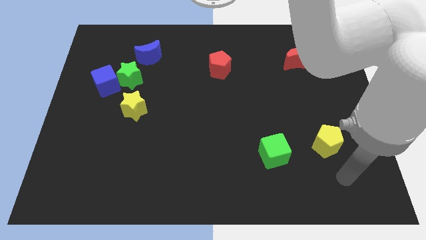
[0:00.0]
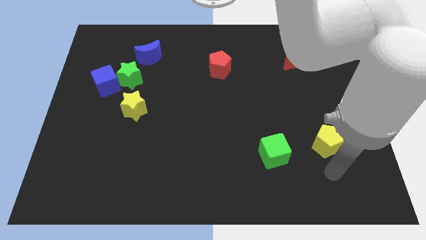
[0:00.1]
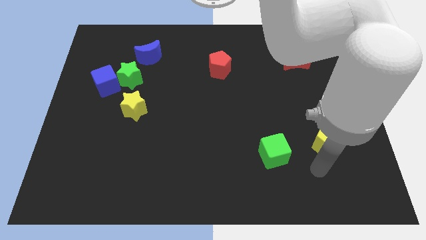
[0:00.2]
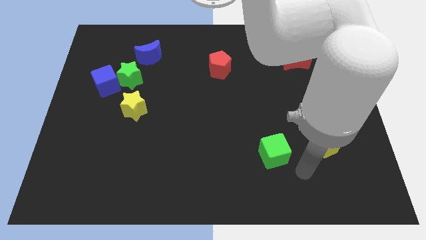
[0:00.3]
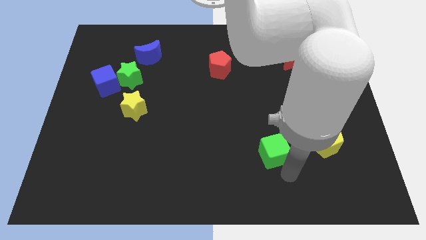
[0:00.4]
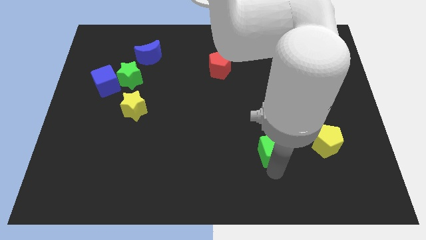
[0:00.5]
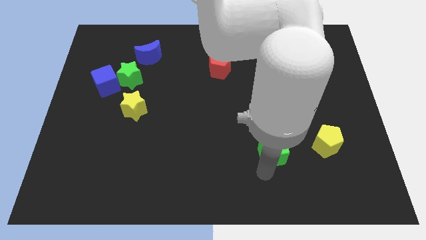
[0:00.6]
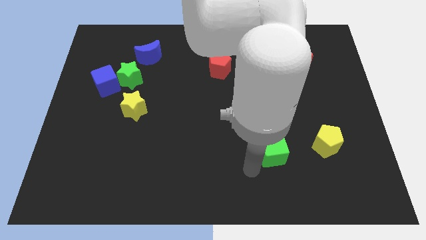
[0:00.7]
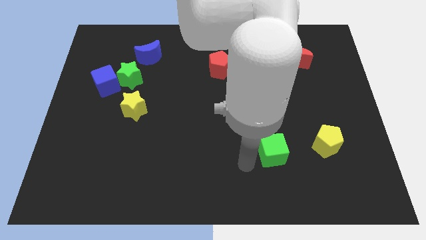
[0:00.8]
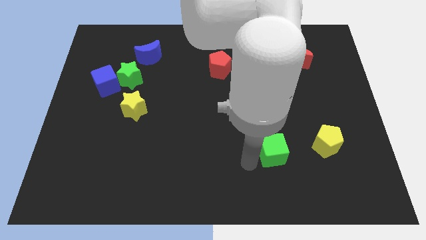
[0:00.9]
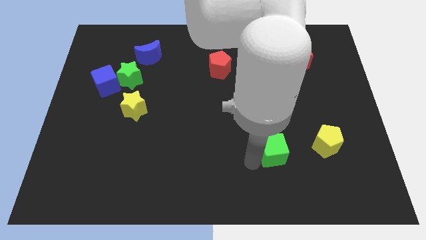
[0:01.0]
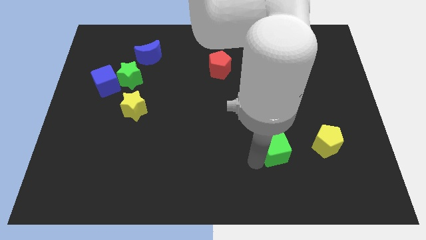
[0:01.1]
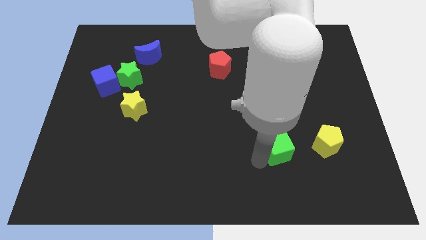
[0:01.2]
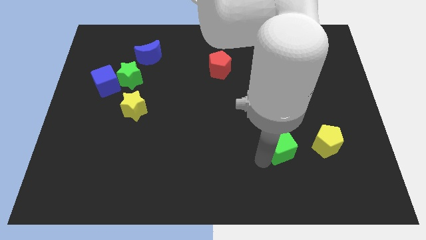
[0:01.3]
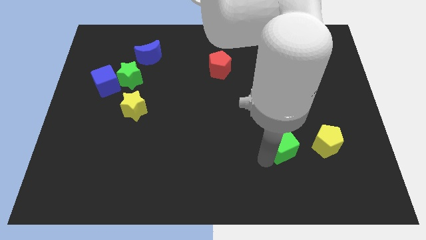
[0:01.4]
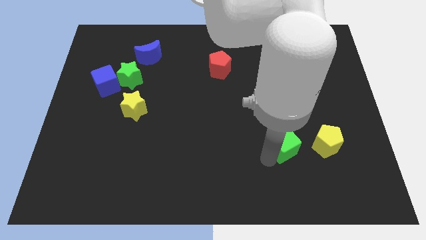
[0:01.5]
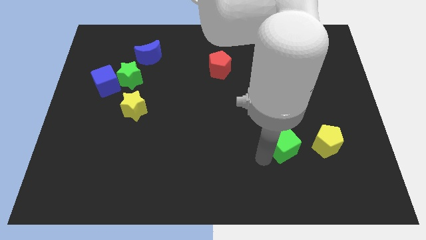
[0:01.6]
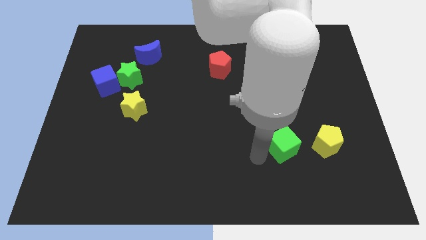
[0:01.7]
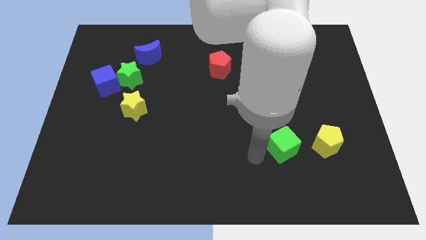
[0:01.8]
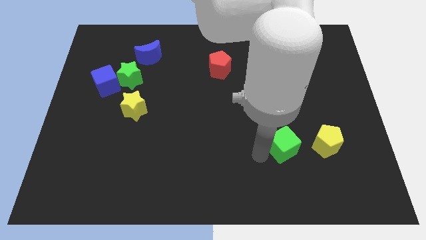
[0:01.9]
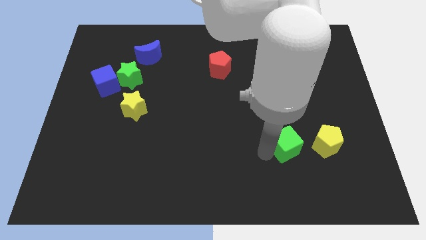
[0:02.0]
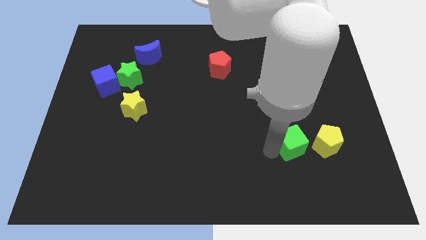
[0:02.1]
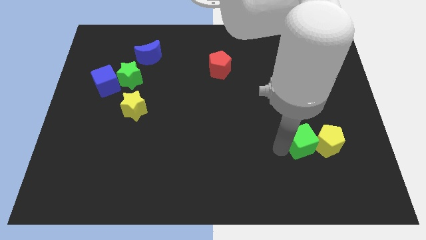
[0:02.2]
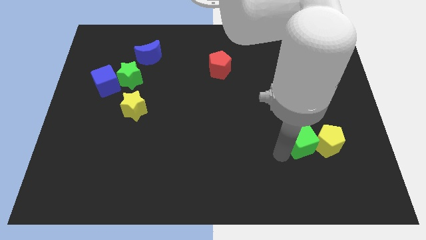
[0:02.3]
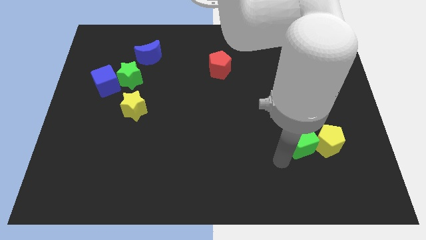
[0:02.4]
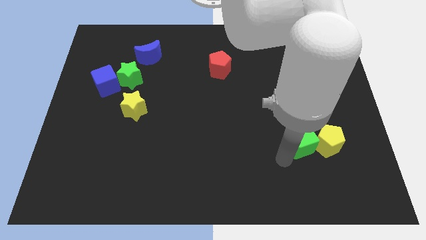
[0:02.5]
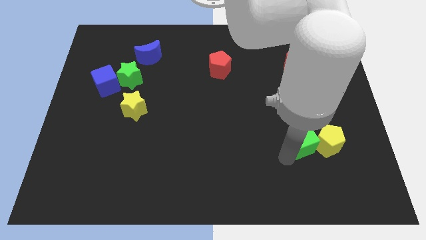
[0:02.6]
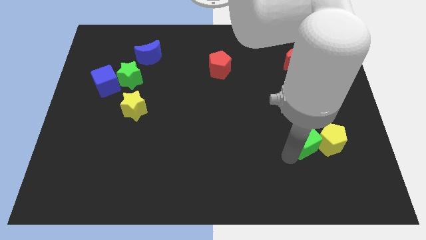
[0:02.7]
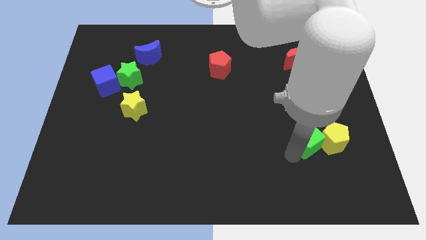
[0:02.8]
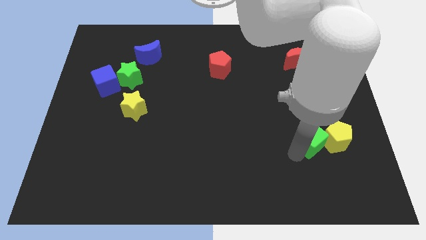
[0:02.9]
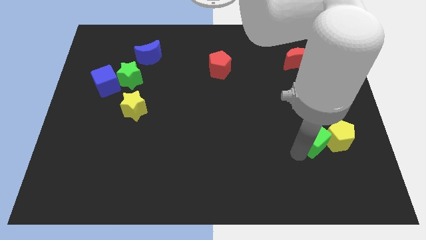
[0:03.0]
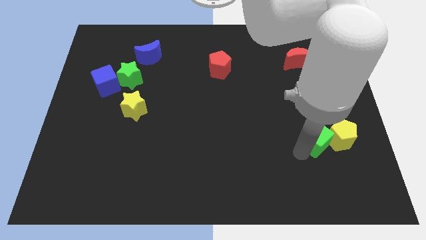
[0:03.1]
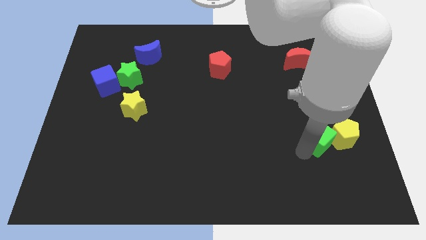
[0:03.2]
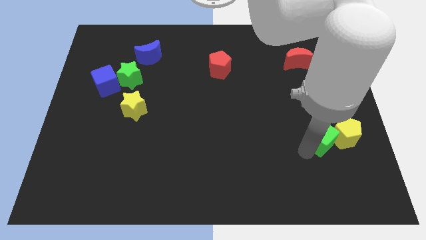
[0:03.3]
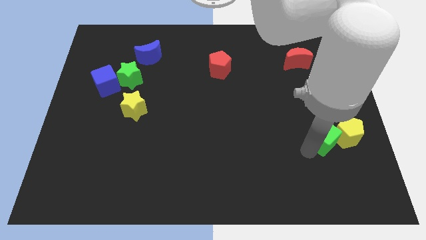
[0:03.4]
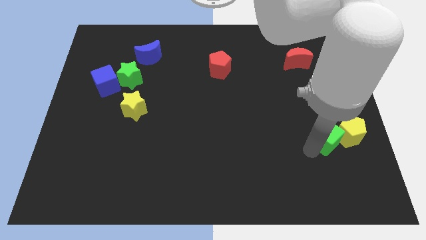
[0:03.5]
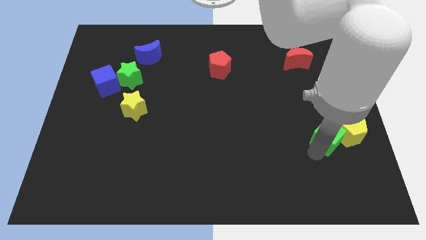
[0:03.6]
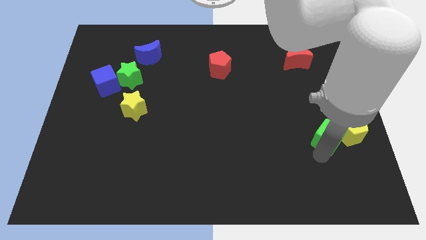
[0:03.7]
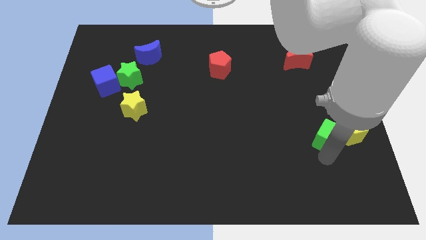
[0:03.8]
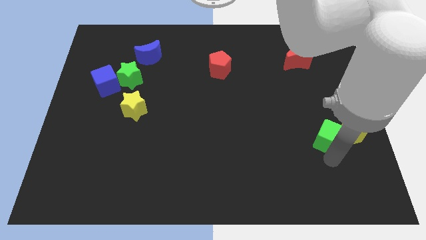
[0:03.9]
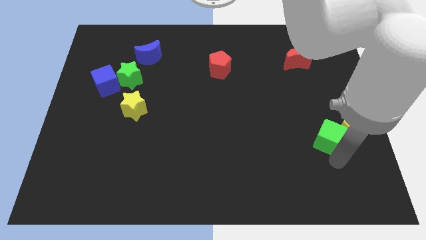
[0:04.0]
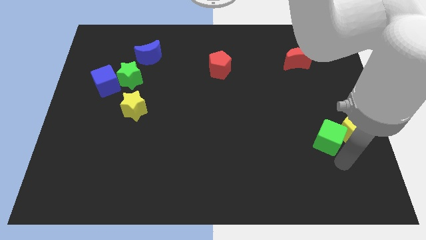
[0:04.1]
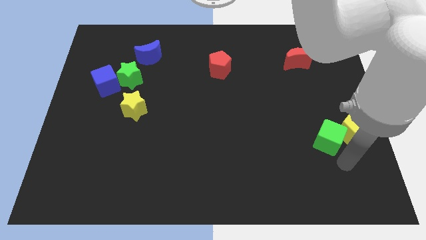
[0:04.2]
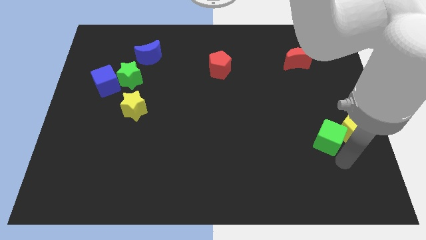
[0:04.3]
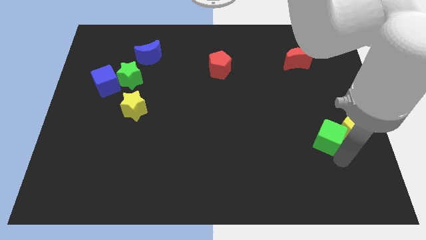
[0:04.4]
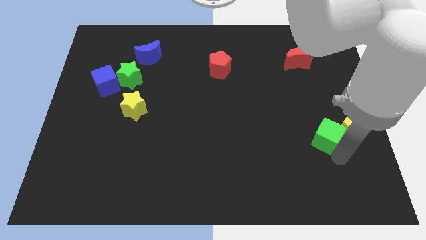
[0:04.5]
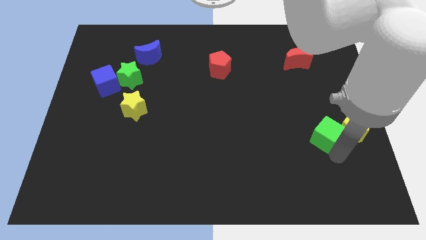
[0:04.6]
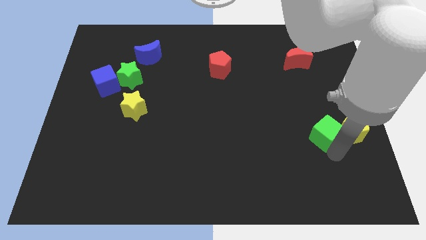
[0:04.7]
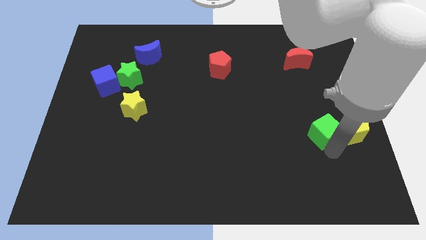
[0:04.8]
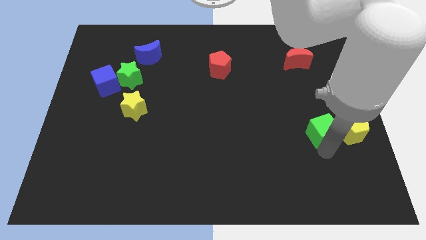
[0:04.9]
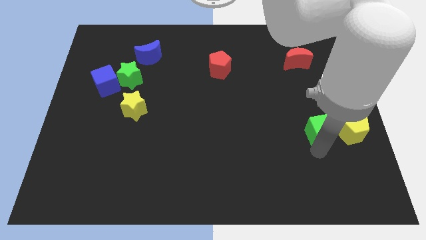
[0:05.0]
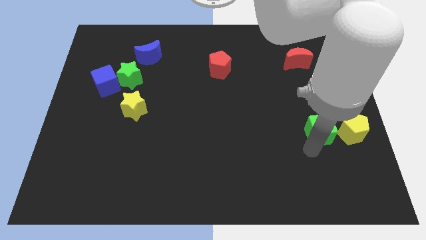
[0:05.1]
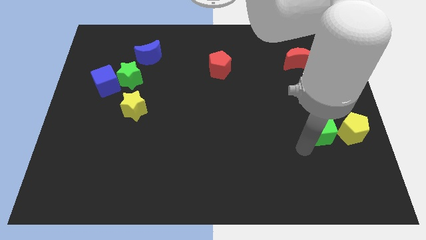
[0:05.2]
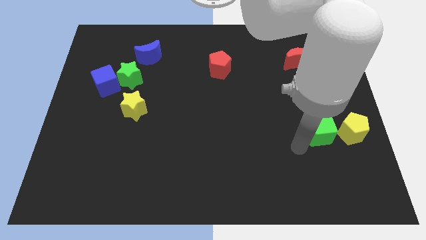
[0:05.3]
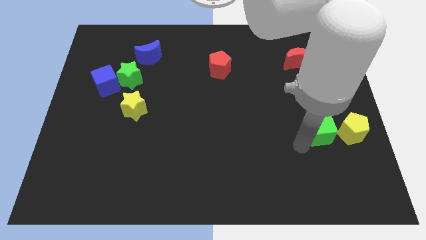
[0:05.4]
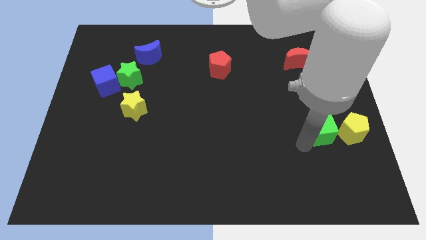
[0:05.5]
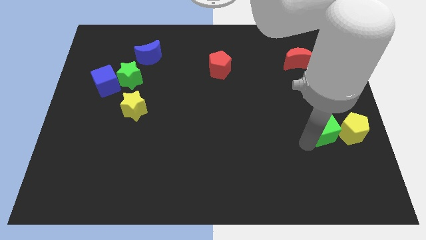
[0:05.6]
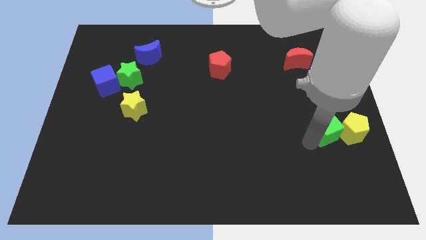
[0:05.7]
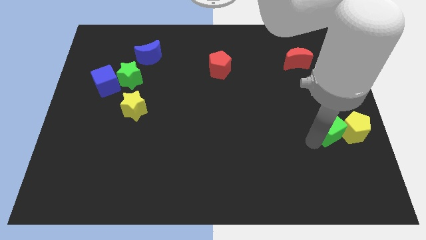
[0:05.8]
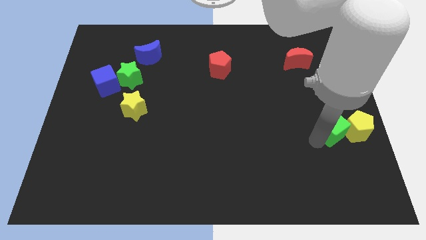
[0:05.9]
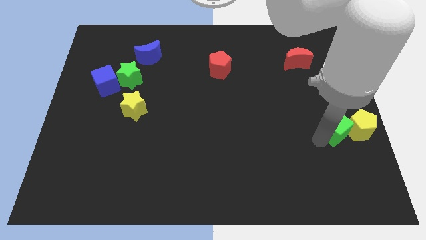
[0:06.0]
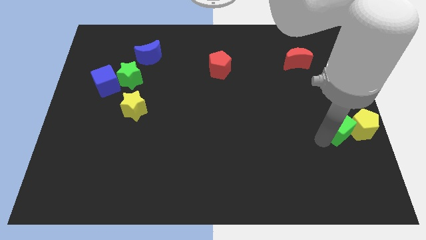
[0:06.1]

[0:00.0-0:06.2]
push the green cube to the center right

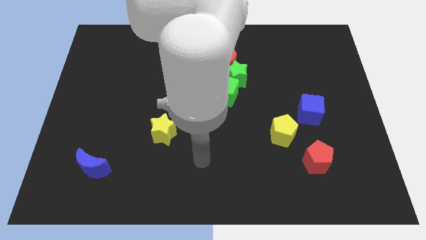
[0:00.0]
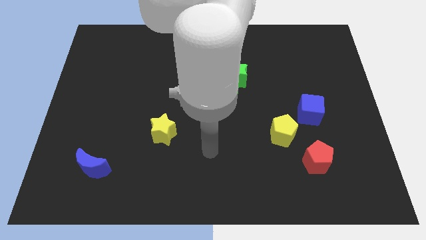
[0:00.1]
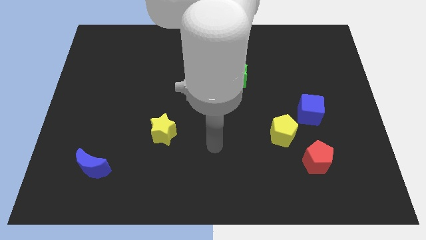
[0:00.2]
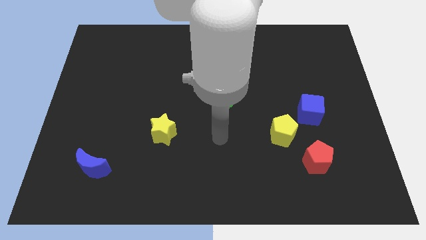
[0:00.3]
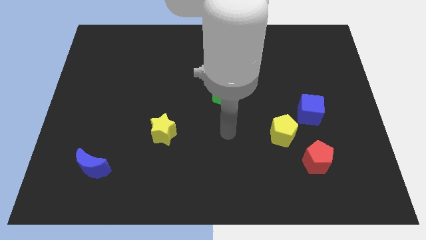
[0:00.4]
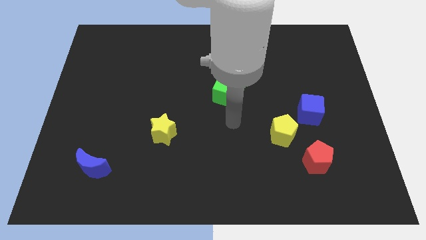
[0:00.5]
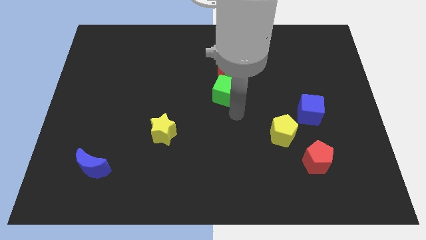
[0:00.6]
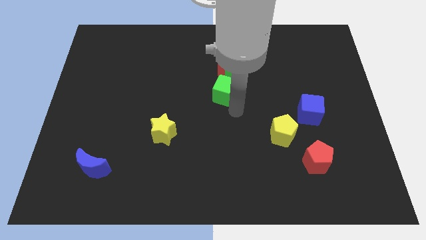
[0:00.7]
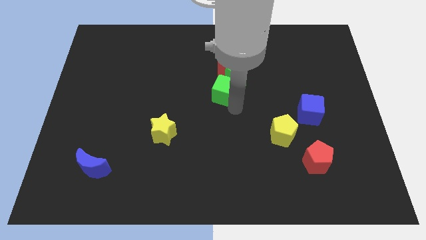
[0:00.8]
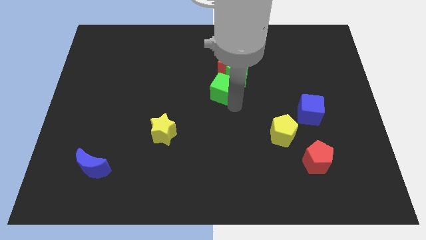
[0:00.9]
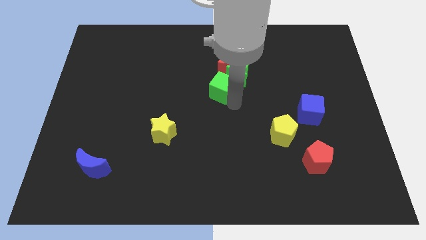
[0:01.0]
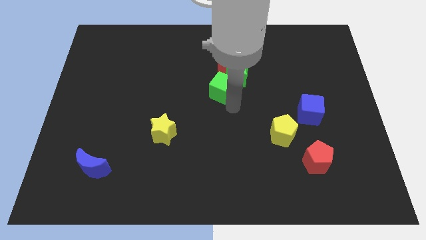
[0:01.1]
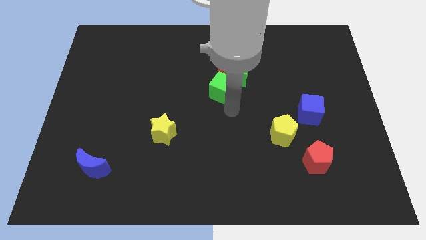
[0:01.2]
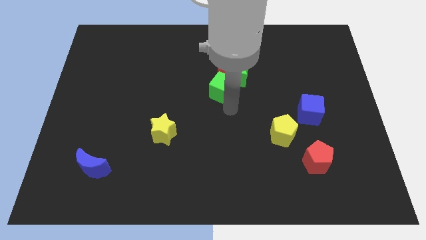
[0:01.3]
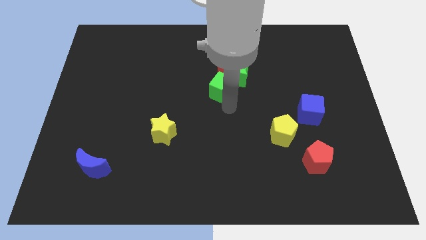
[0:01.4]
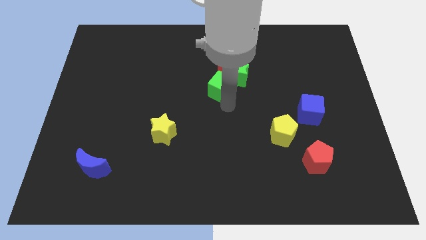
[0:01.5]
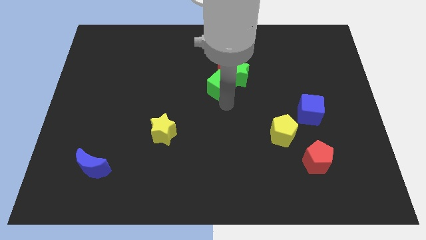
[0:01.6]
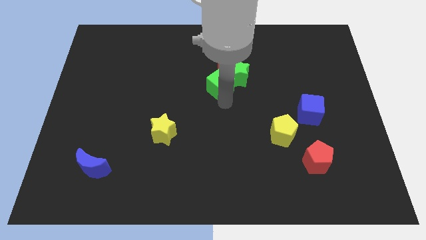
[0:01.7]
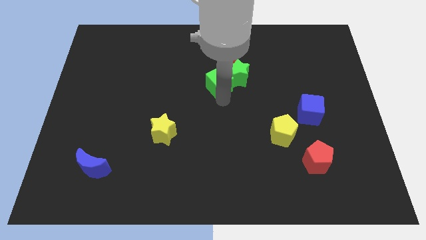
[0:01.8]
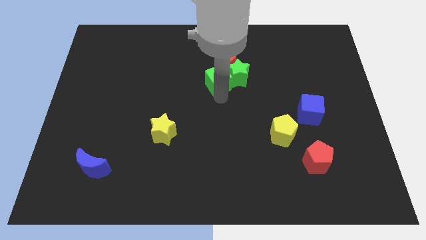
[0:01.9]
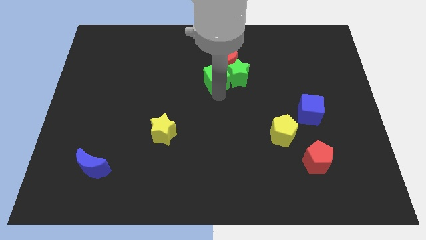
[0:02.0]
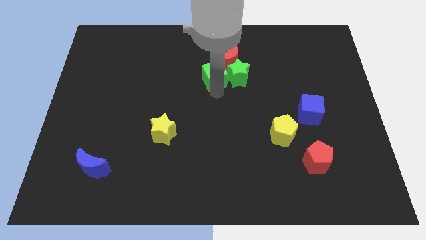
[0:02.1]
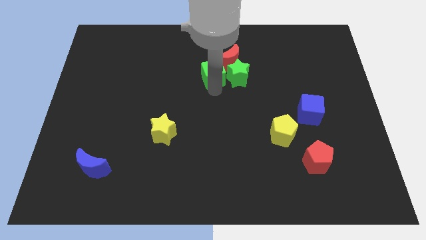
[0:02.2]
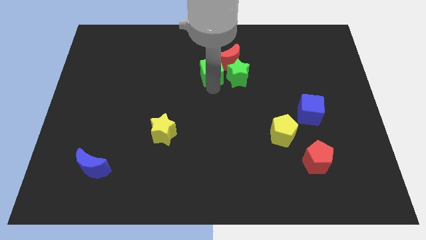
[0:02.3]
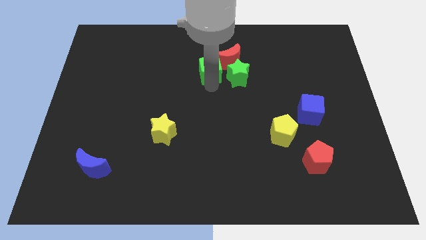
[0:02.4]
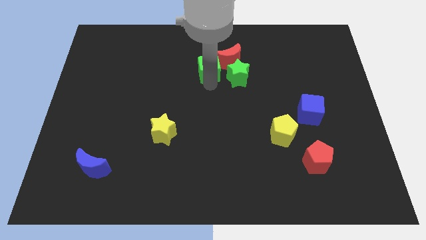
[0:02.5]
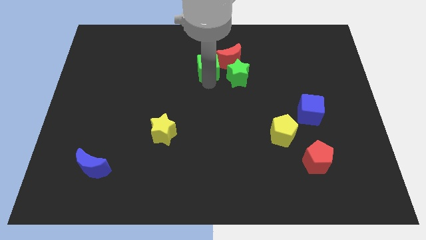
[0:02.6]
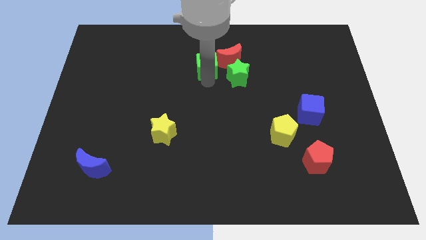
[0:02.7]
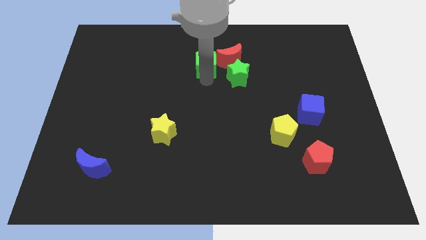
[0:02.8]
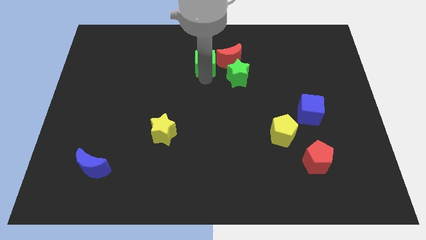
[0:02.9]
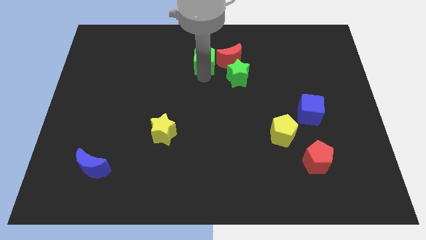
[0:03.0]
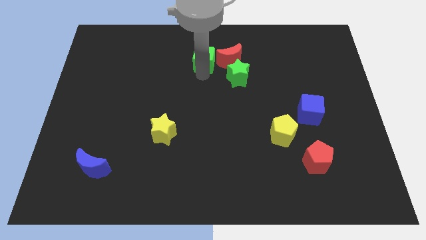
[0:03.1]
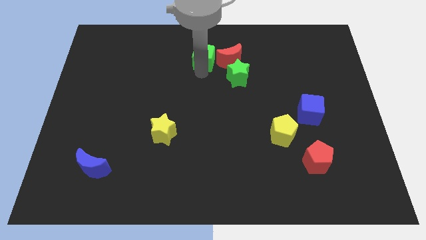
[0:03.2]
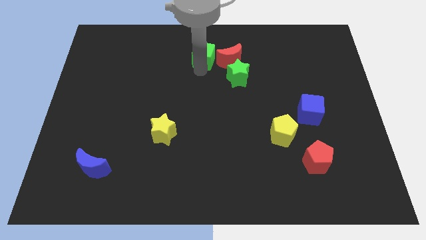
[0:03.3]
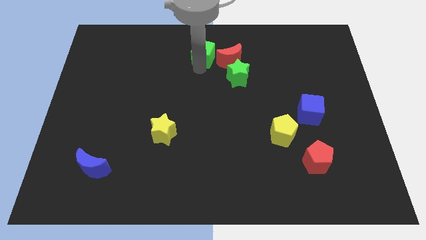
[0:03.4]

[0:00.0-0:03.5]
move the green cube to the towards your base
